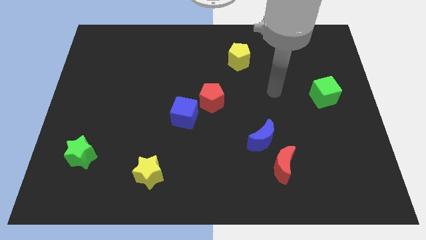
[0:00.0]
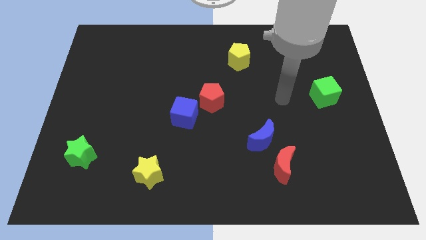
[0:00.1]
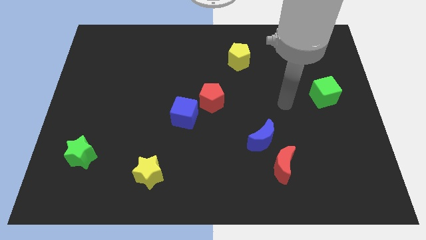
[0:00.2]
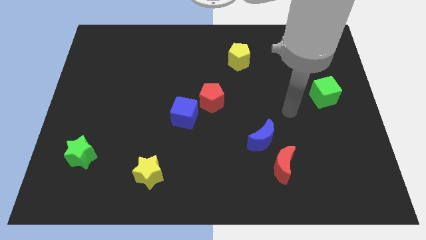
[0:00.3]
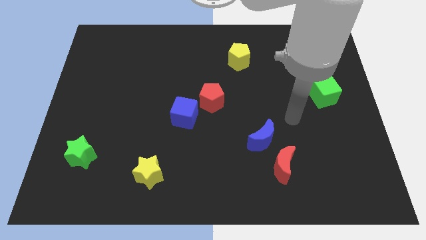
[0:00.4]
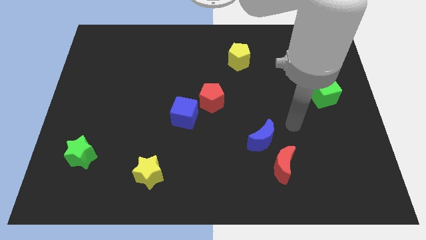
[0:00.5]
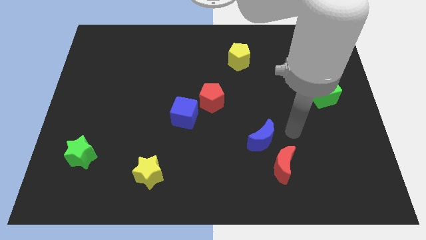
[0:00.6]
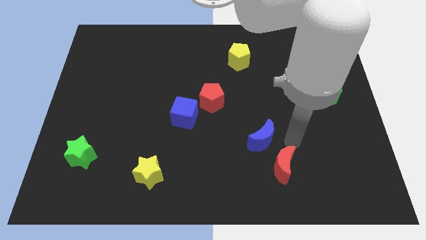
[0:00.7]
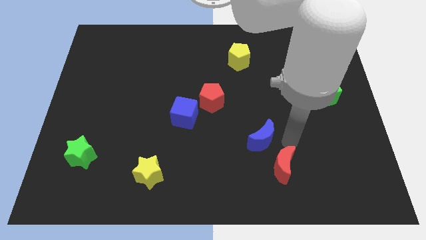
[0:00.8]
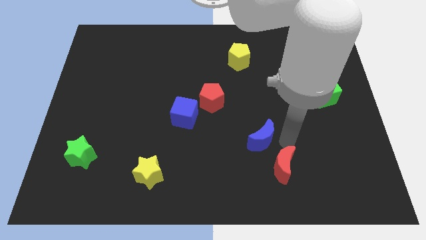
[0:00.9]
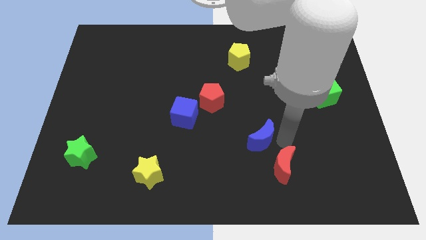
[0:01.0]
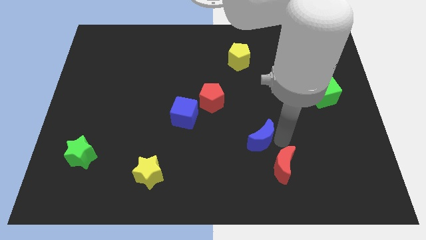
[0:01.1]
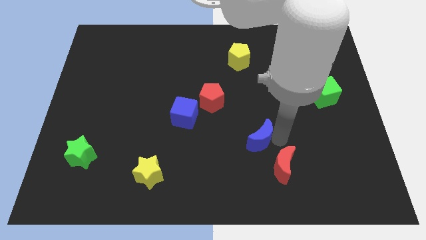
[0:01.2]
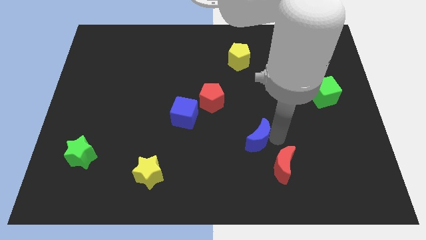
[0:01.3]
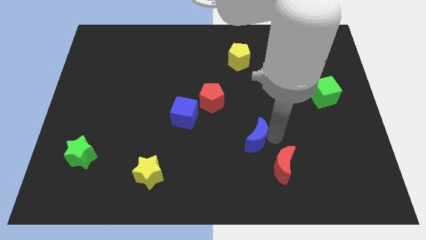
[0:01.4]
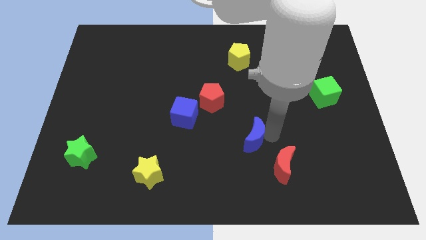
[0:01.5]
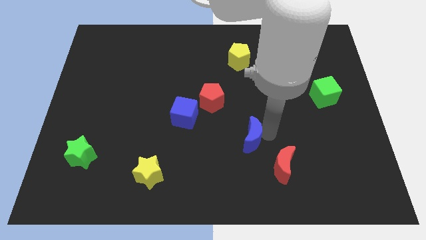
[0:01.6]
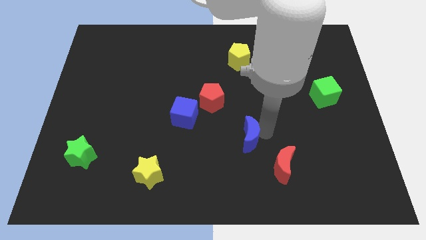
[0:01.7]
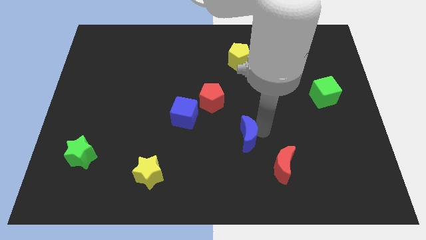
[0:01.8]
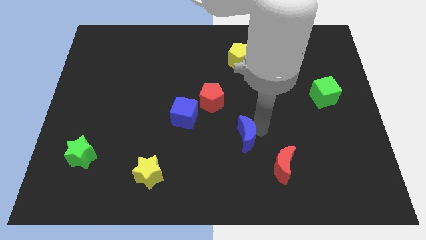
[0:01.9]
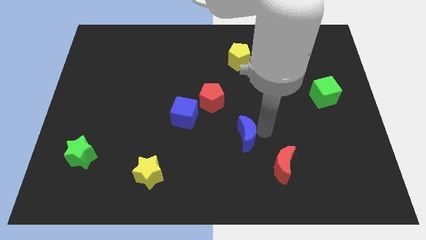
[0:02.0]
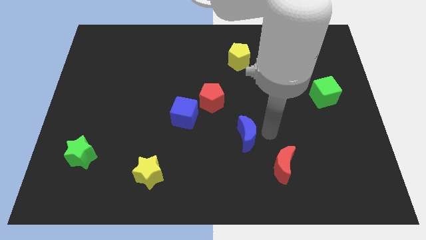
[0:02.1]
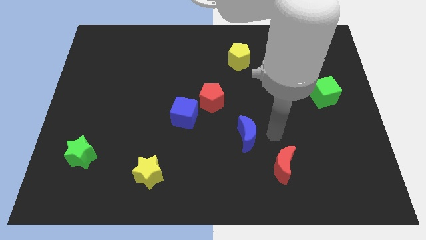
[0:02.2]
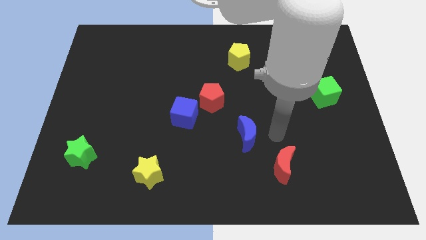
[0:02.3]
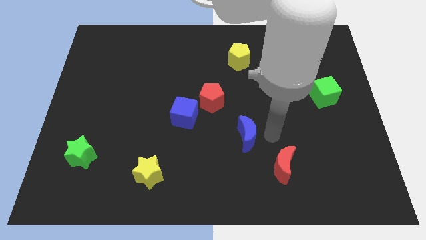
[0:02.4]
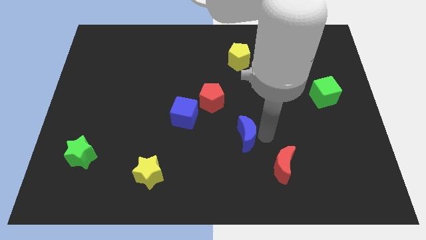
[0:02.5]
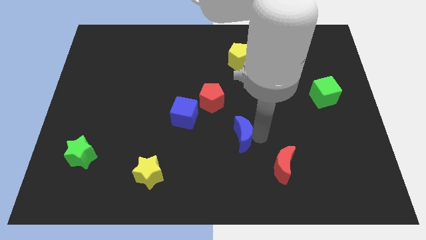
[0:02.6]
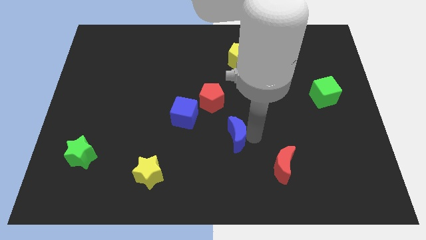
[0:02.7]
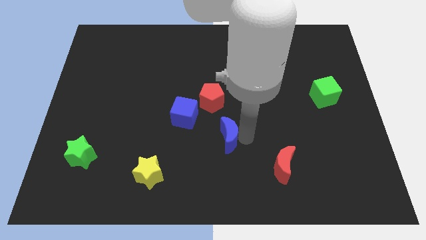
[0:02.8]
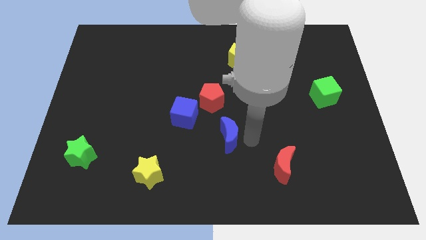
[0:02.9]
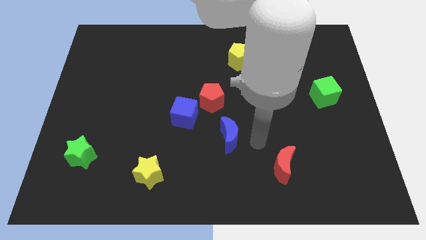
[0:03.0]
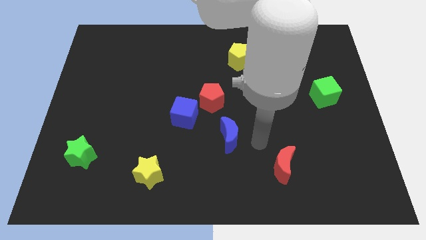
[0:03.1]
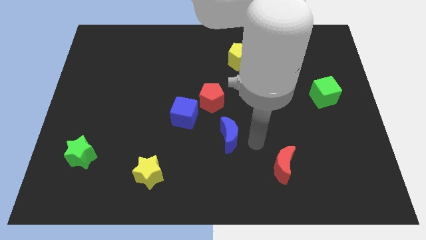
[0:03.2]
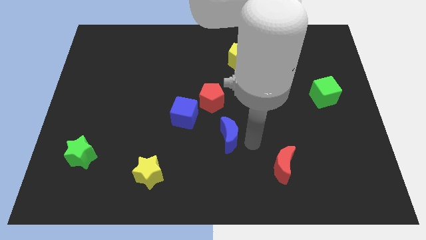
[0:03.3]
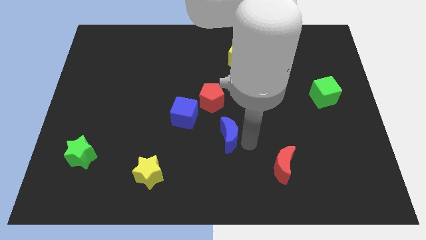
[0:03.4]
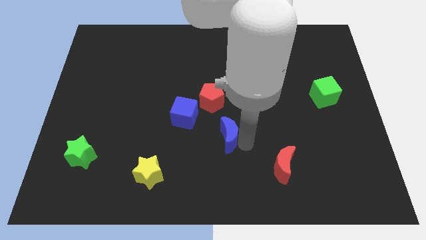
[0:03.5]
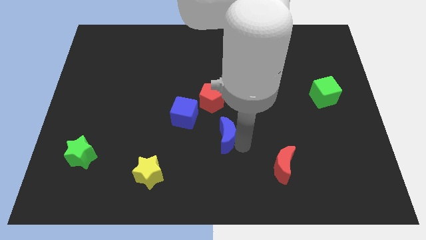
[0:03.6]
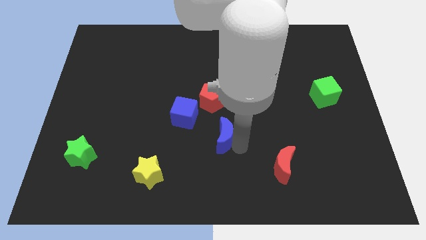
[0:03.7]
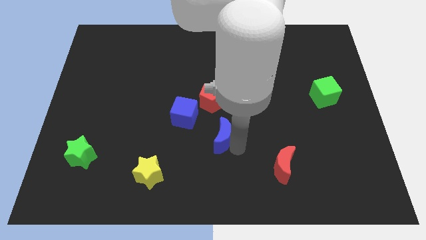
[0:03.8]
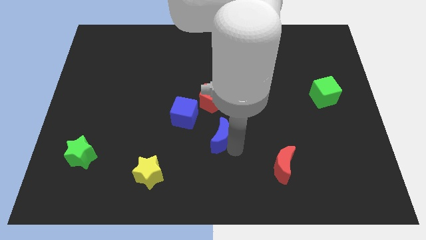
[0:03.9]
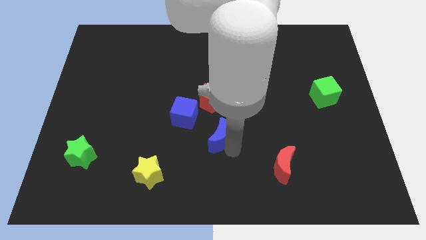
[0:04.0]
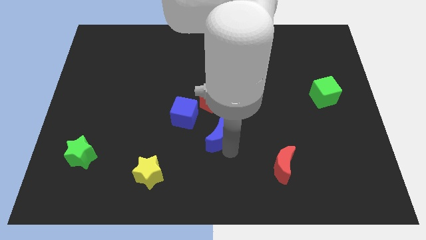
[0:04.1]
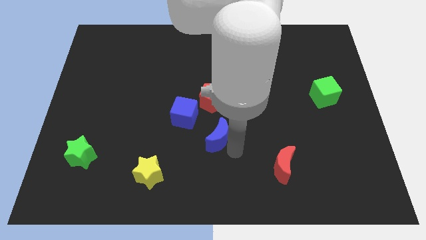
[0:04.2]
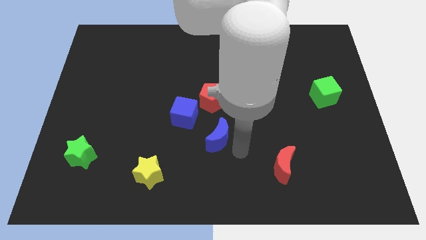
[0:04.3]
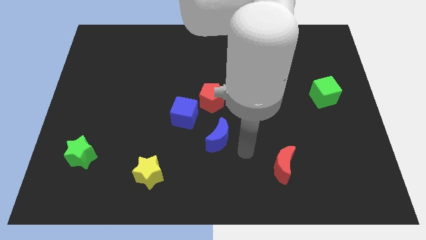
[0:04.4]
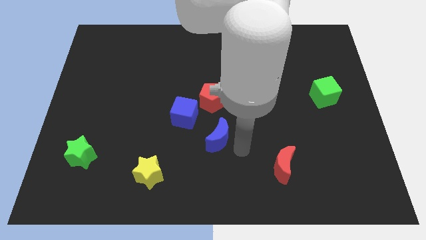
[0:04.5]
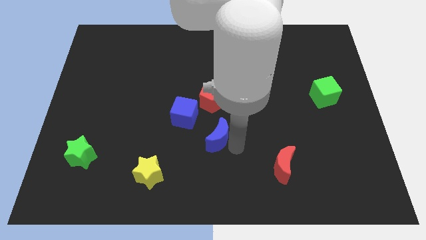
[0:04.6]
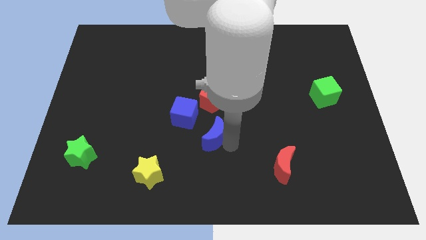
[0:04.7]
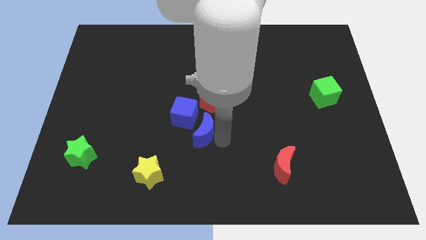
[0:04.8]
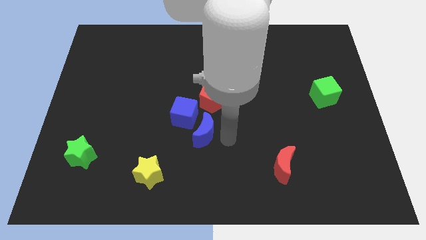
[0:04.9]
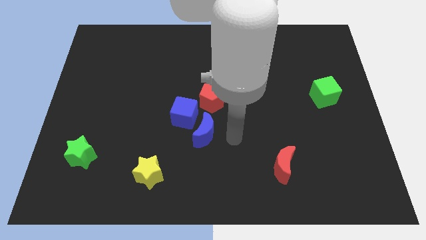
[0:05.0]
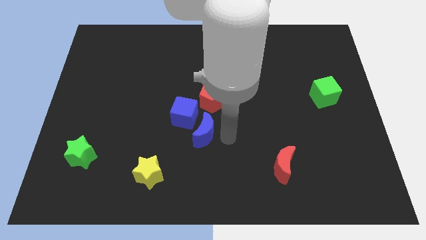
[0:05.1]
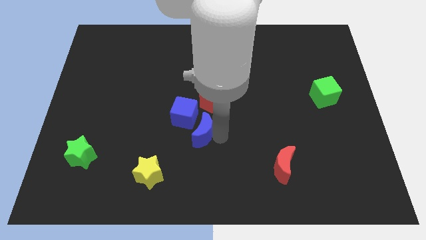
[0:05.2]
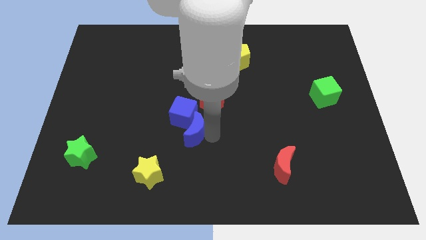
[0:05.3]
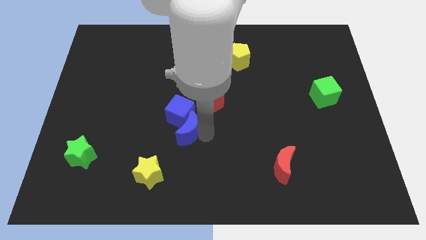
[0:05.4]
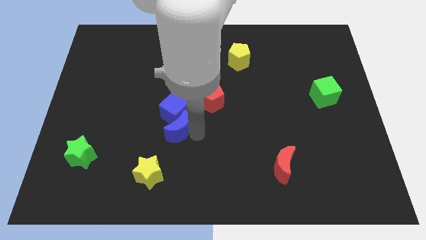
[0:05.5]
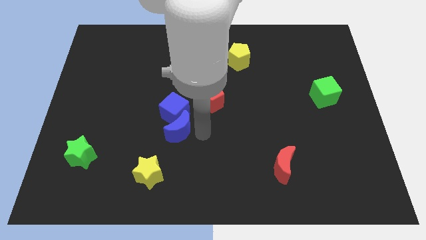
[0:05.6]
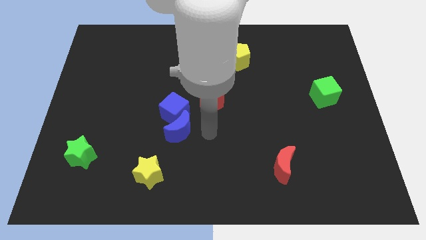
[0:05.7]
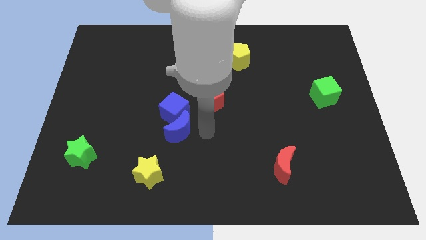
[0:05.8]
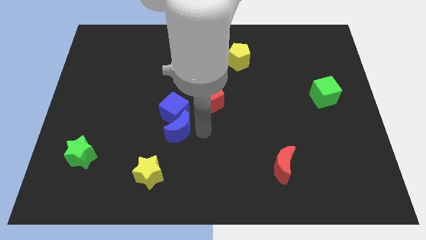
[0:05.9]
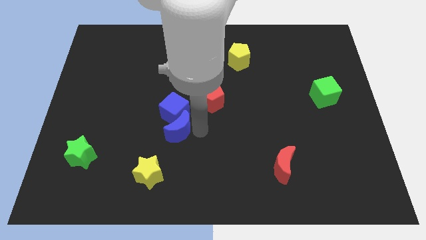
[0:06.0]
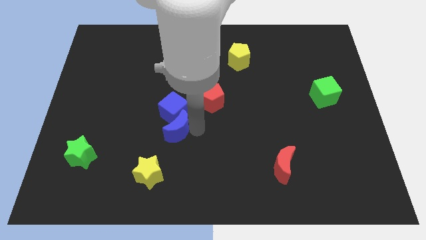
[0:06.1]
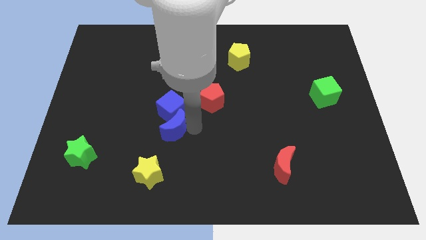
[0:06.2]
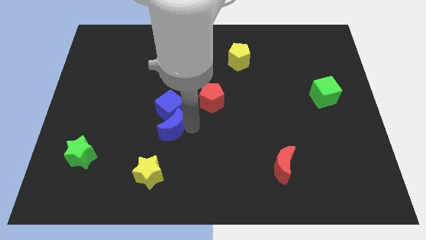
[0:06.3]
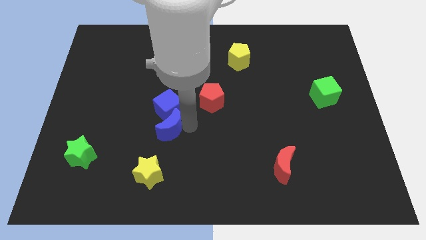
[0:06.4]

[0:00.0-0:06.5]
push the blue moon to the left

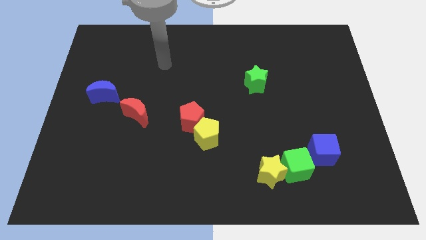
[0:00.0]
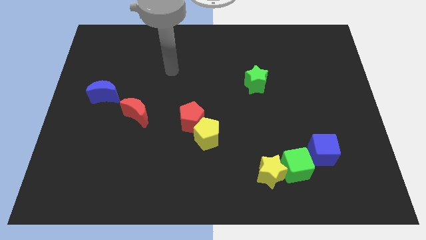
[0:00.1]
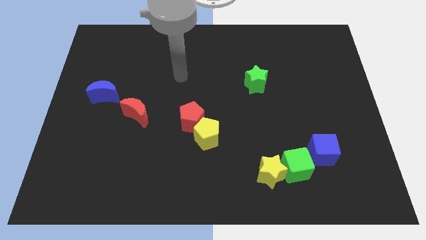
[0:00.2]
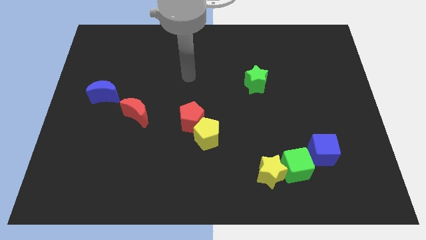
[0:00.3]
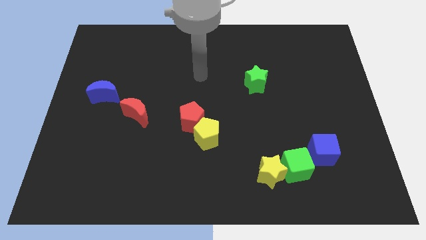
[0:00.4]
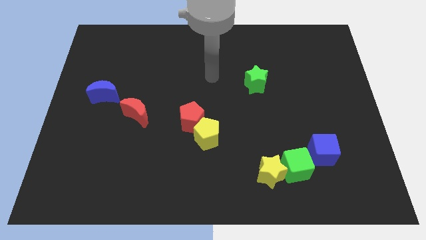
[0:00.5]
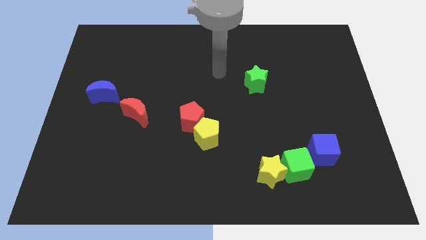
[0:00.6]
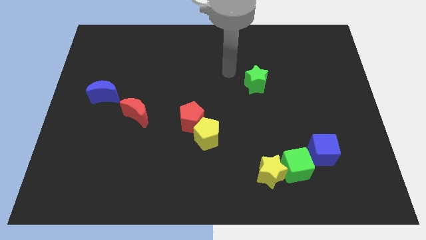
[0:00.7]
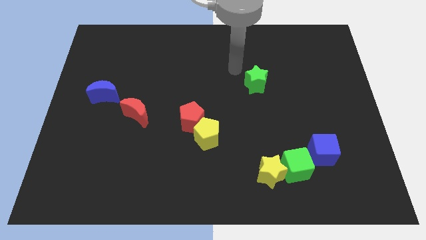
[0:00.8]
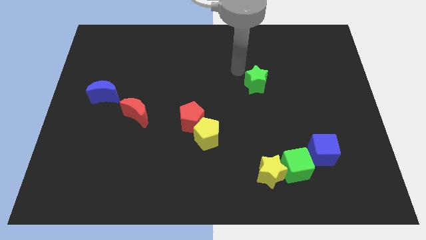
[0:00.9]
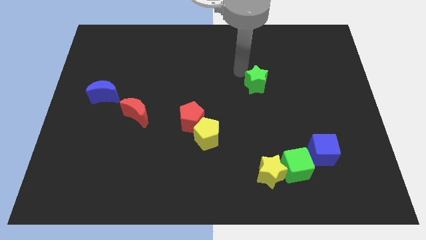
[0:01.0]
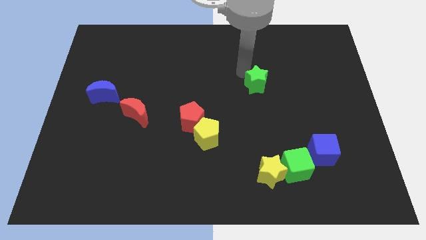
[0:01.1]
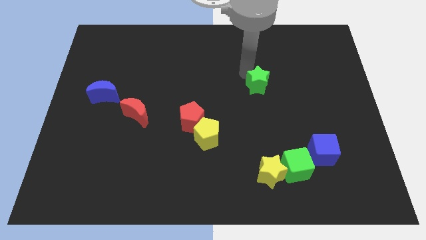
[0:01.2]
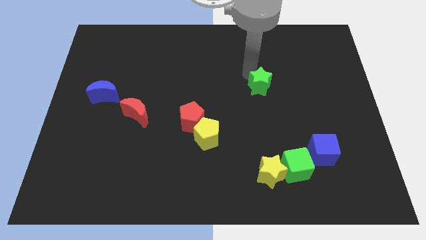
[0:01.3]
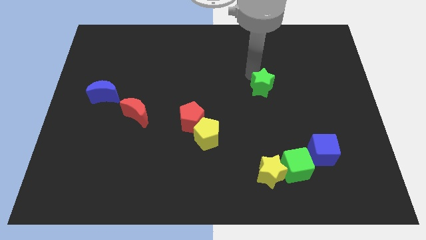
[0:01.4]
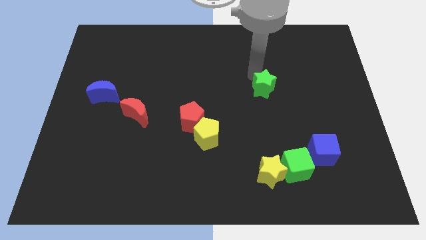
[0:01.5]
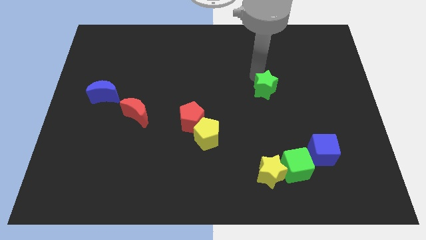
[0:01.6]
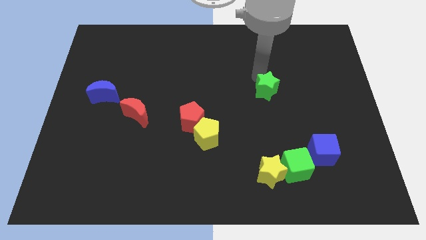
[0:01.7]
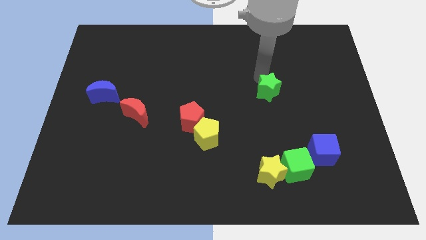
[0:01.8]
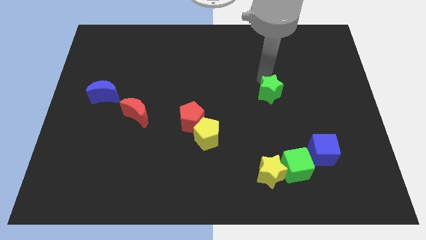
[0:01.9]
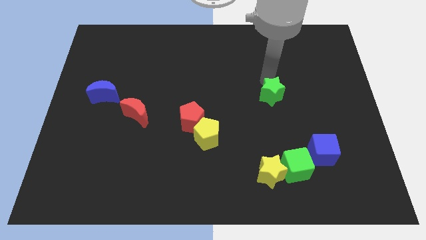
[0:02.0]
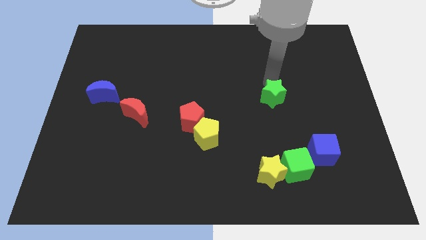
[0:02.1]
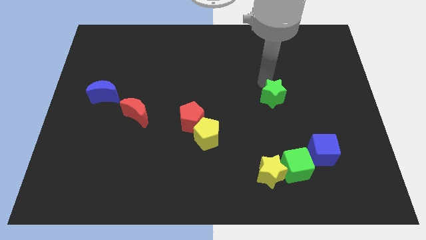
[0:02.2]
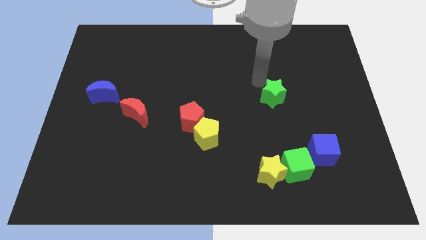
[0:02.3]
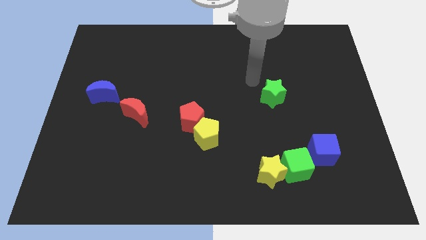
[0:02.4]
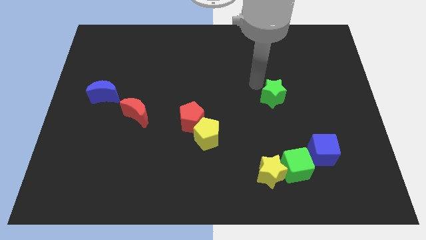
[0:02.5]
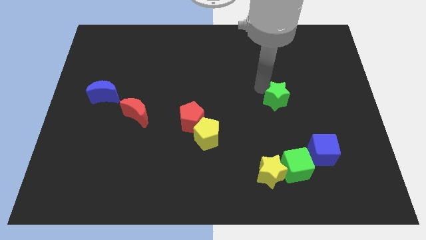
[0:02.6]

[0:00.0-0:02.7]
slightly slide the green star diagonally downwards and right
